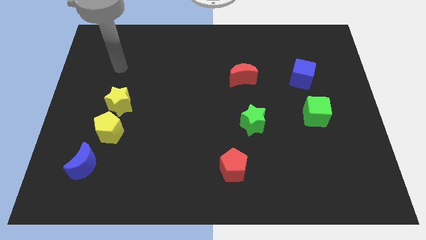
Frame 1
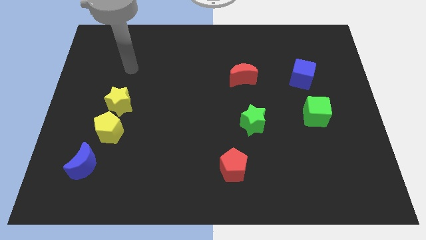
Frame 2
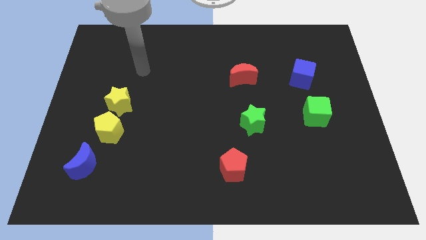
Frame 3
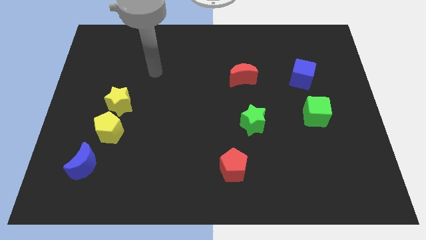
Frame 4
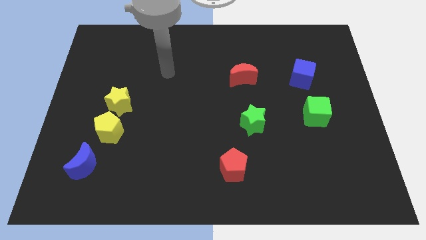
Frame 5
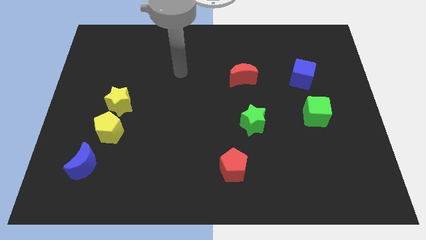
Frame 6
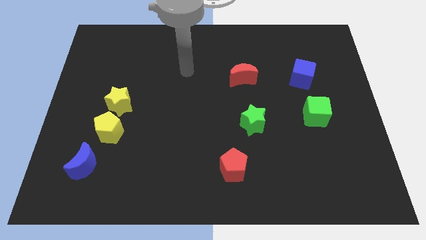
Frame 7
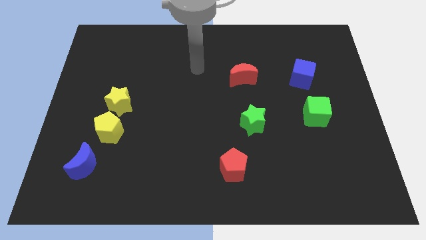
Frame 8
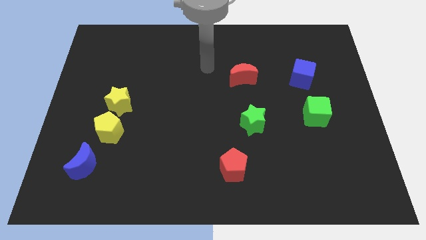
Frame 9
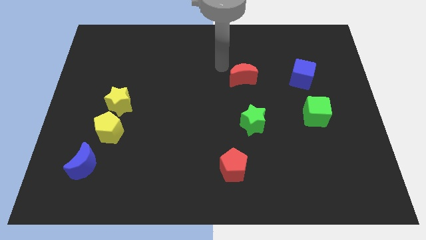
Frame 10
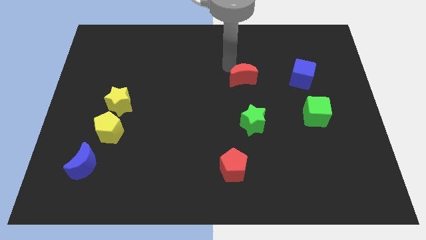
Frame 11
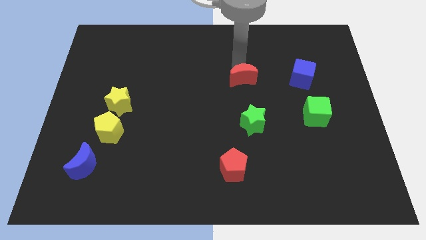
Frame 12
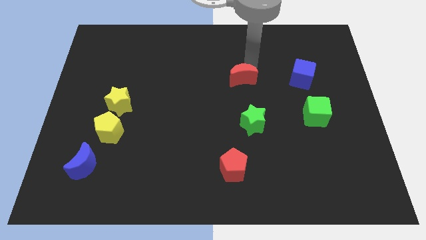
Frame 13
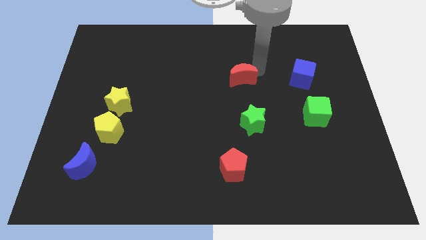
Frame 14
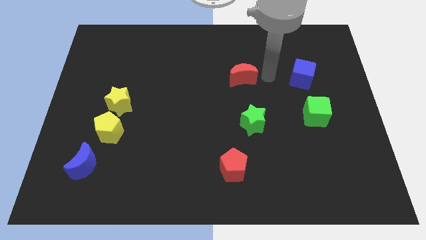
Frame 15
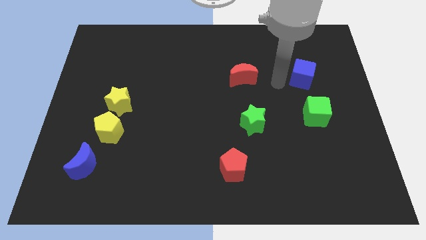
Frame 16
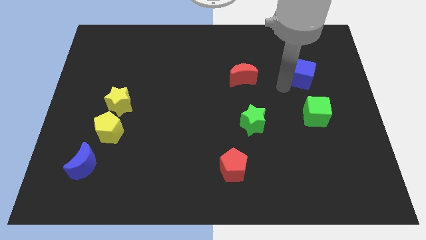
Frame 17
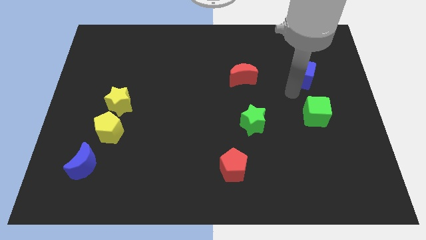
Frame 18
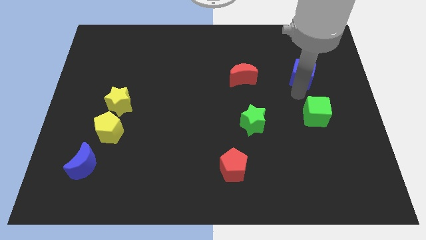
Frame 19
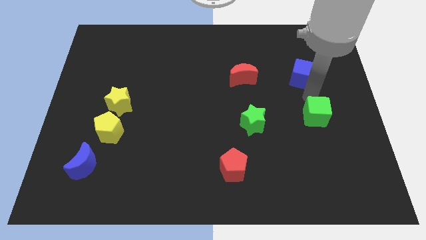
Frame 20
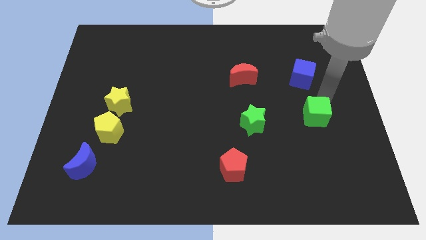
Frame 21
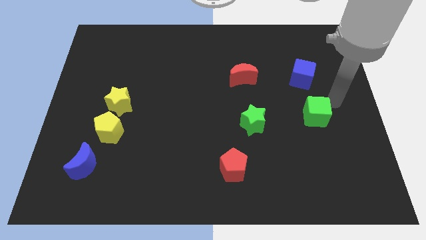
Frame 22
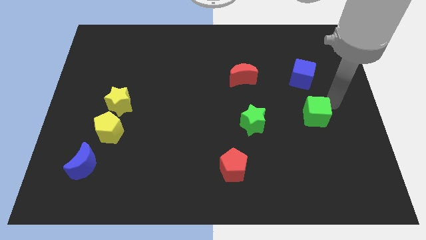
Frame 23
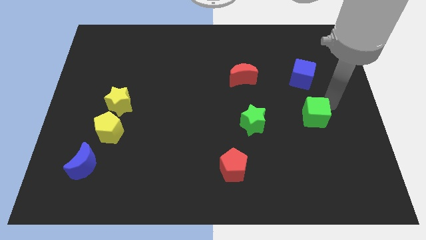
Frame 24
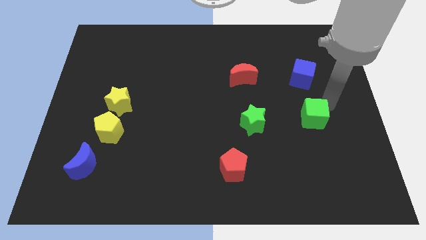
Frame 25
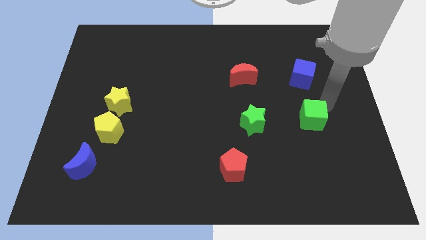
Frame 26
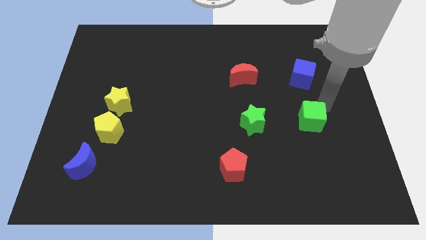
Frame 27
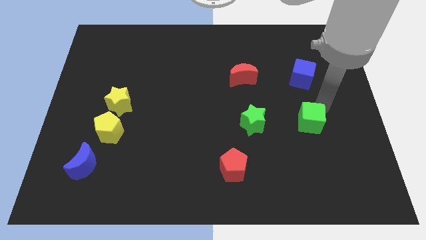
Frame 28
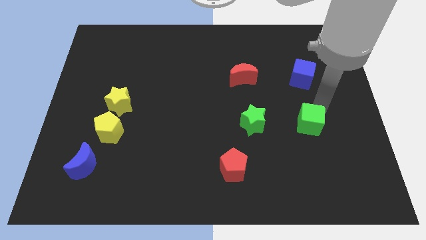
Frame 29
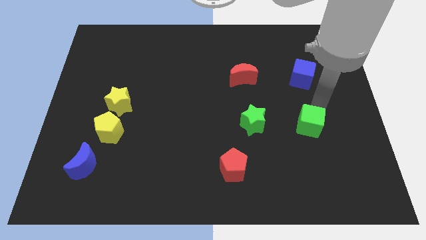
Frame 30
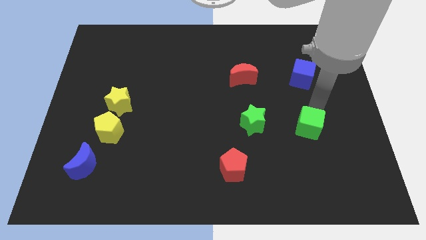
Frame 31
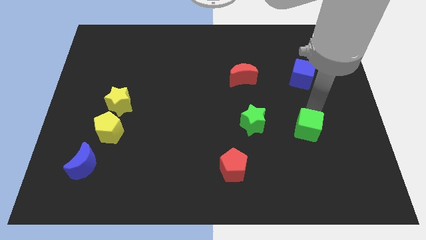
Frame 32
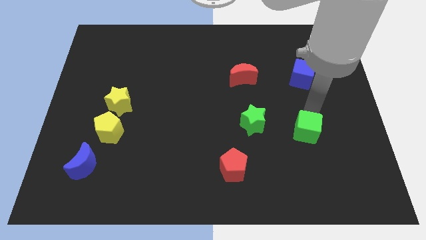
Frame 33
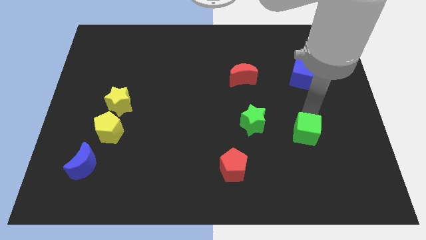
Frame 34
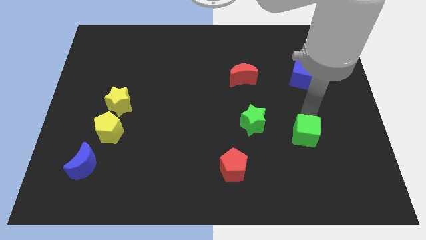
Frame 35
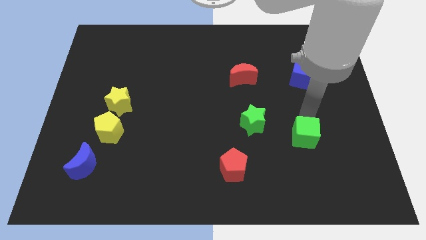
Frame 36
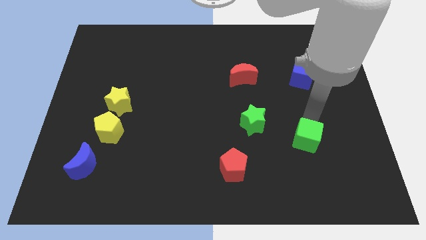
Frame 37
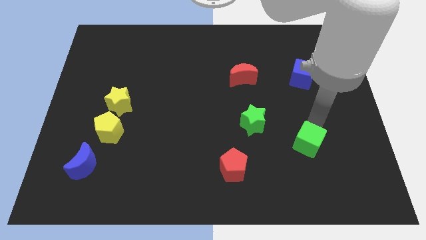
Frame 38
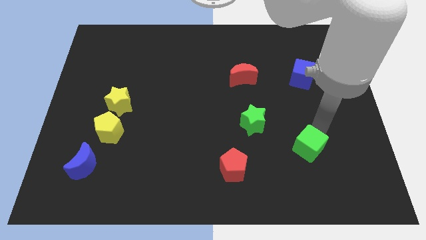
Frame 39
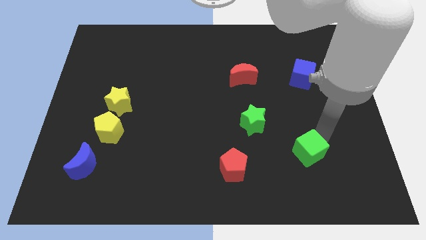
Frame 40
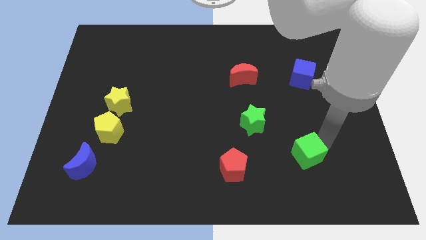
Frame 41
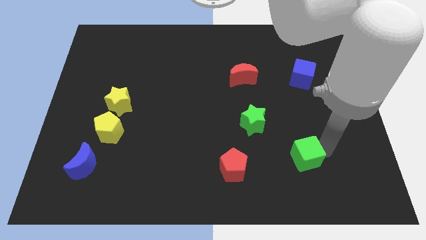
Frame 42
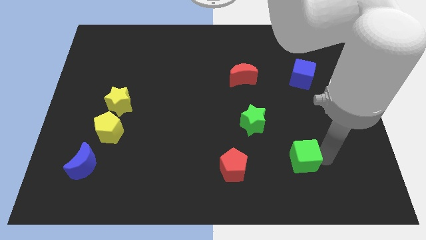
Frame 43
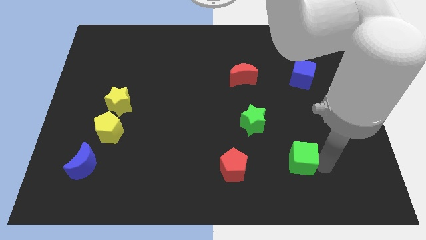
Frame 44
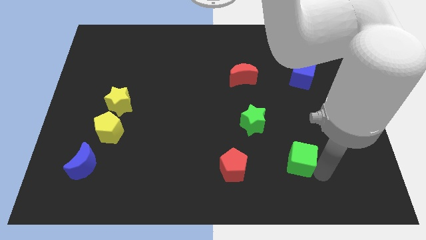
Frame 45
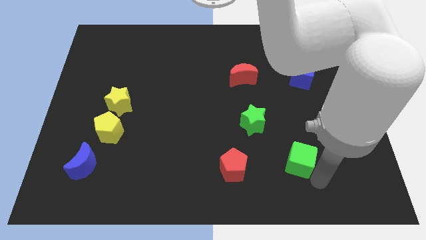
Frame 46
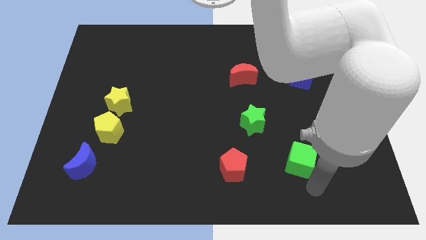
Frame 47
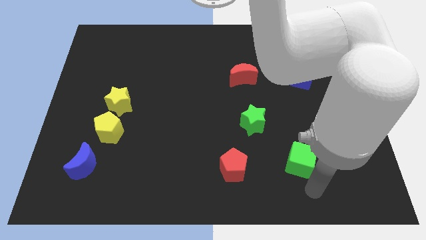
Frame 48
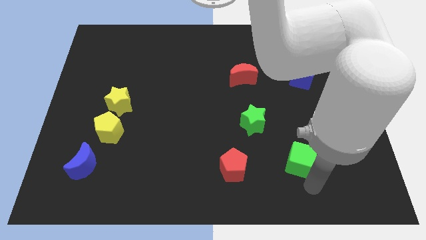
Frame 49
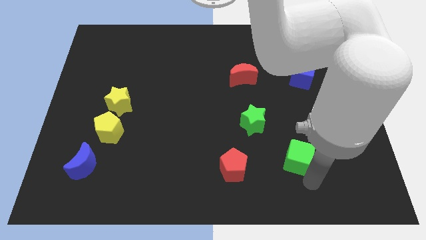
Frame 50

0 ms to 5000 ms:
put the green cube to the bottom right side of the green star

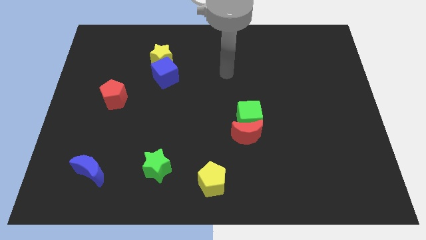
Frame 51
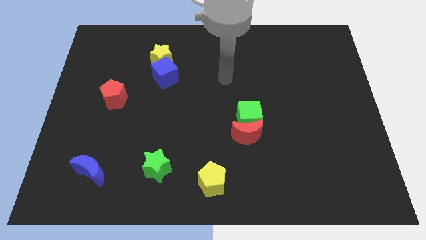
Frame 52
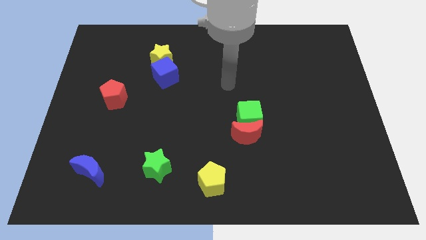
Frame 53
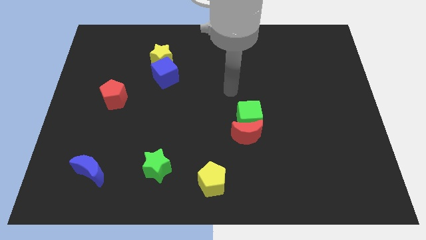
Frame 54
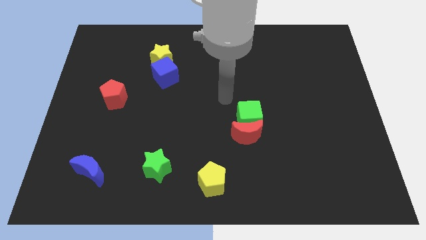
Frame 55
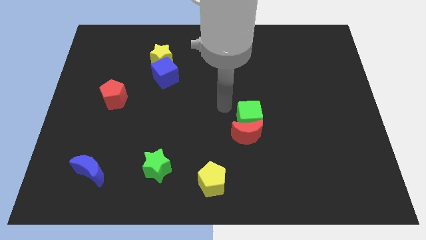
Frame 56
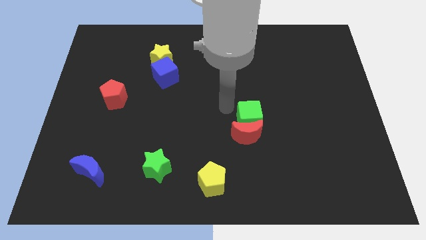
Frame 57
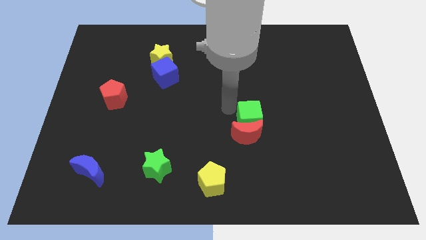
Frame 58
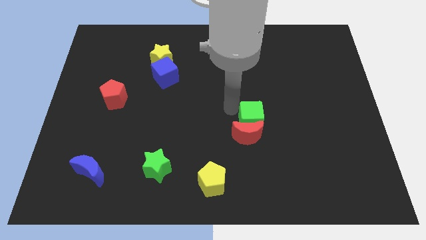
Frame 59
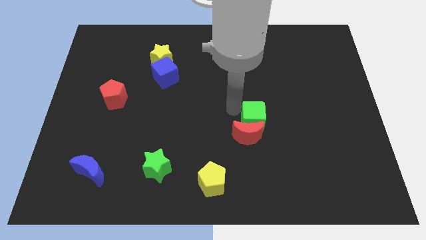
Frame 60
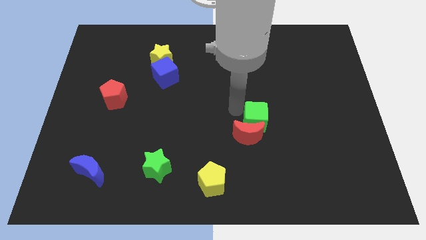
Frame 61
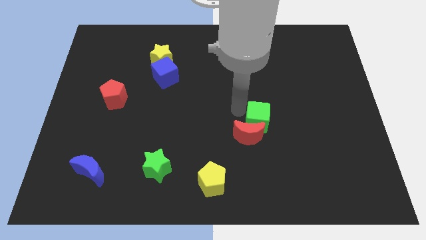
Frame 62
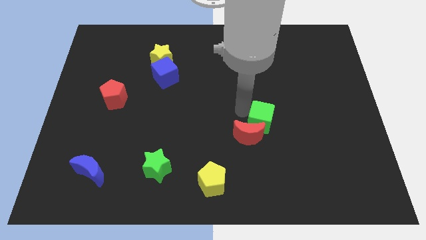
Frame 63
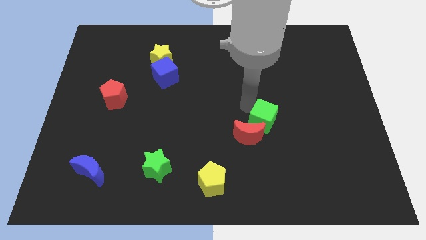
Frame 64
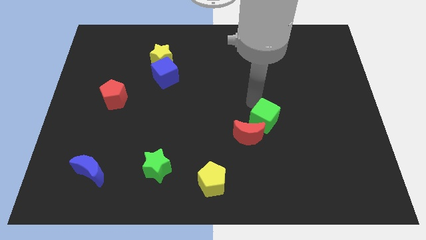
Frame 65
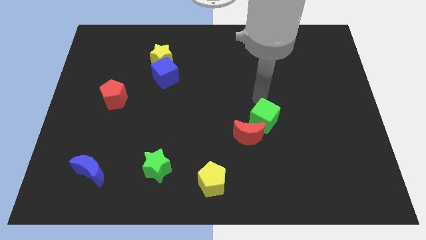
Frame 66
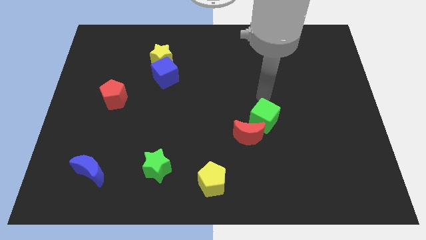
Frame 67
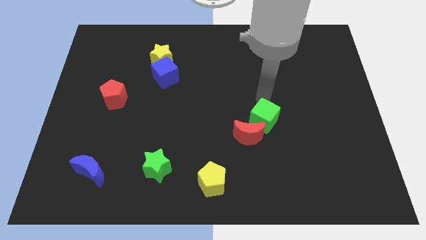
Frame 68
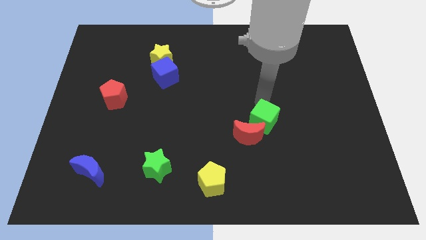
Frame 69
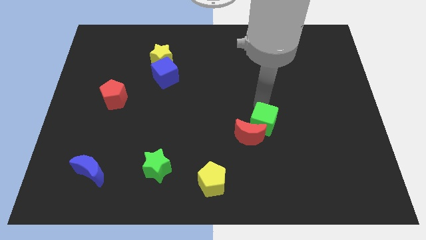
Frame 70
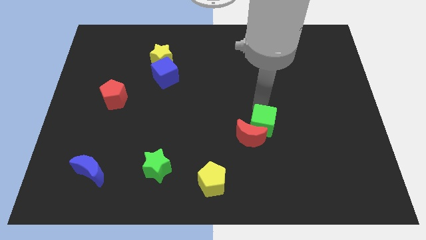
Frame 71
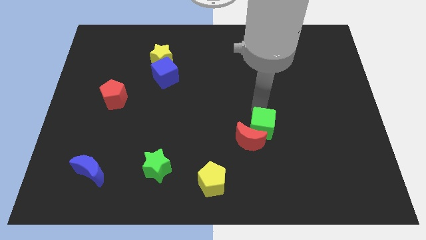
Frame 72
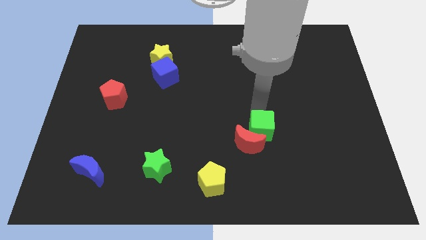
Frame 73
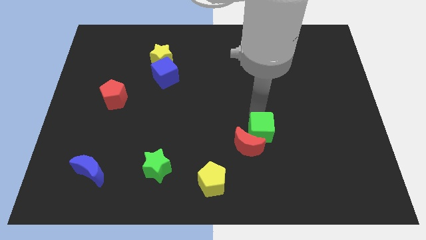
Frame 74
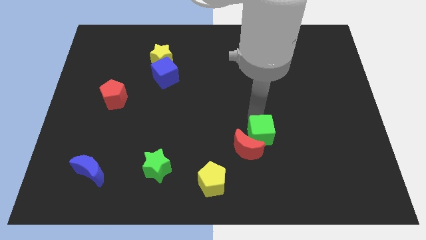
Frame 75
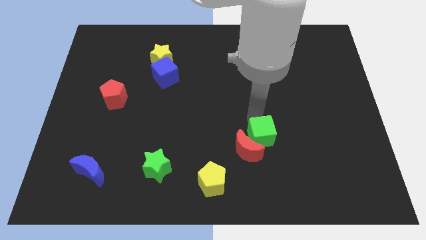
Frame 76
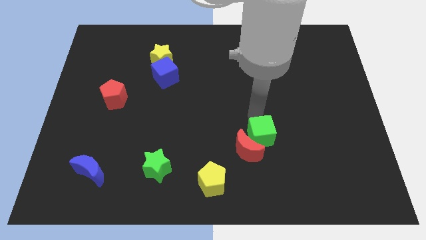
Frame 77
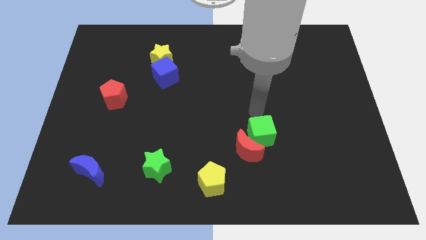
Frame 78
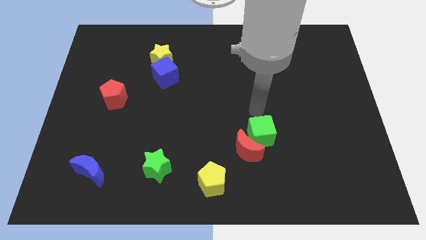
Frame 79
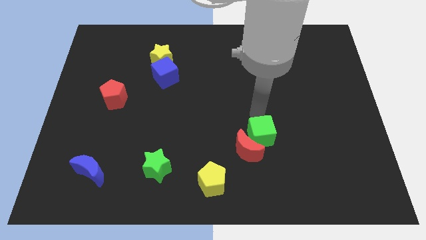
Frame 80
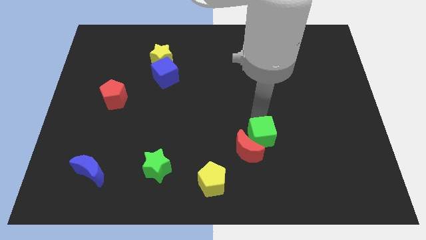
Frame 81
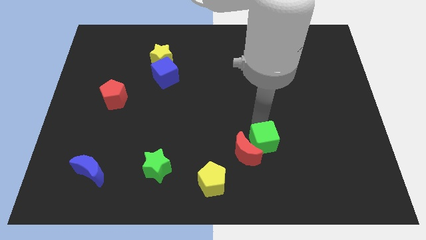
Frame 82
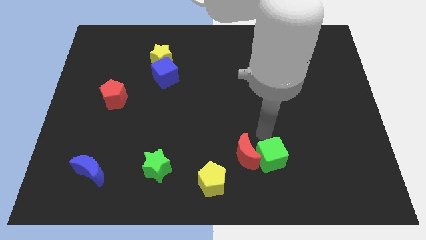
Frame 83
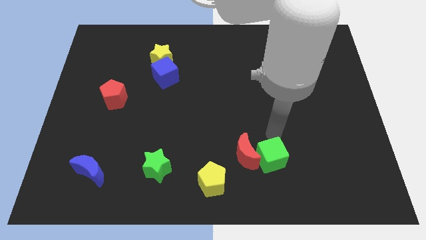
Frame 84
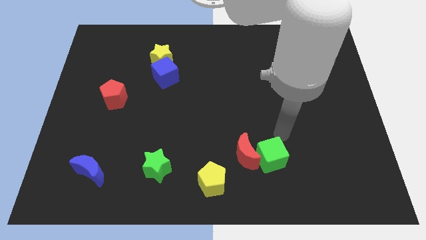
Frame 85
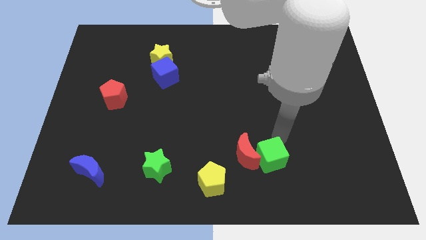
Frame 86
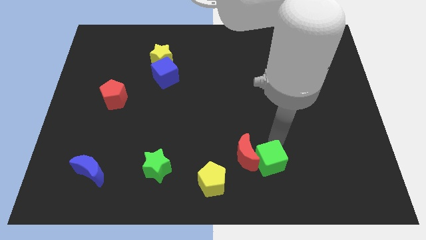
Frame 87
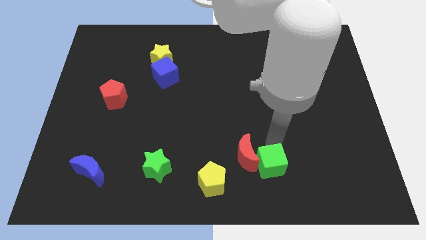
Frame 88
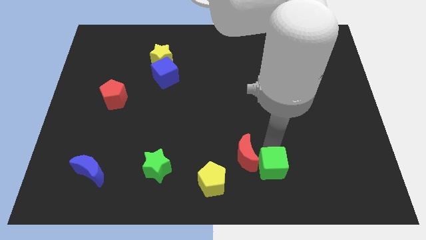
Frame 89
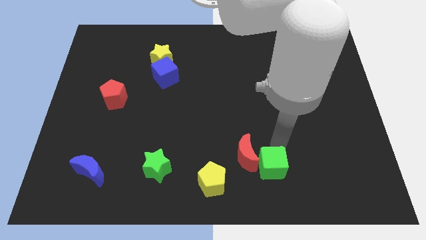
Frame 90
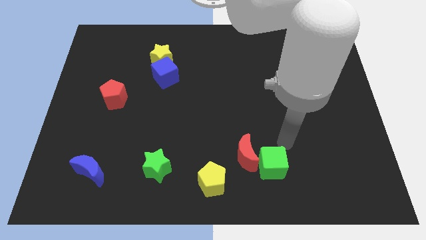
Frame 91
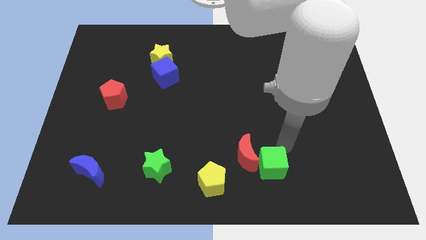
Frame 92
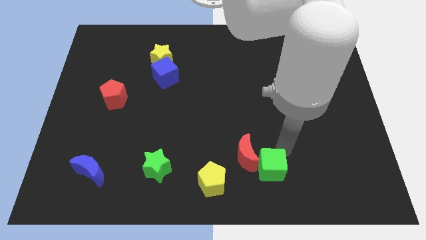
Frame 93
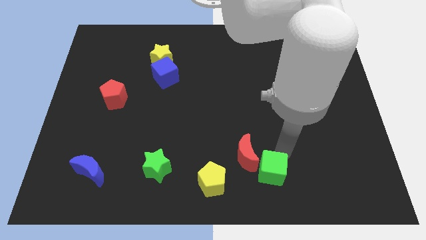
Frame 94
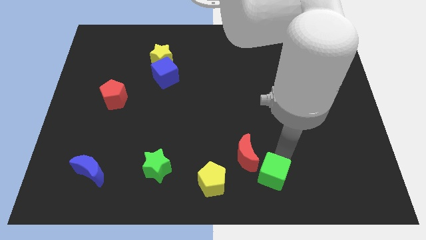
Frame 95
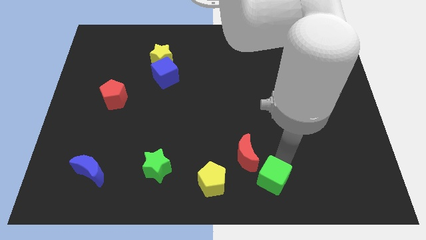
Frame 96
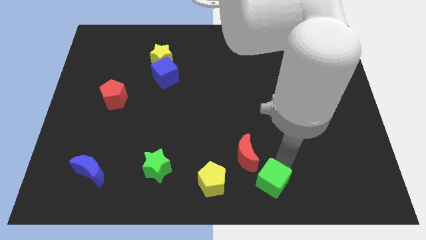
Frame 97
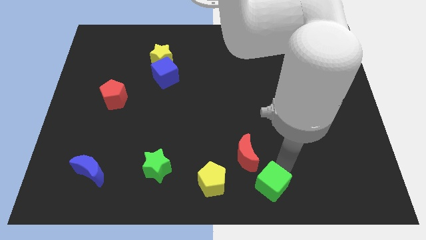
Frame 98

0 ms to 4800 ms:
push the green cube to the bottom of the red moon
